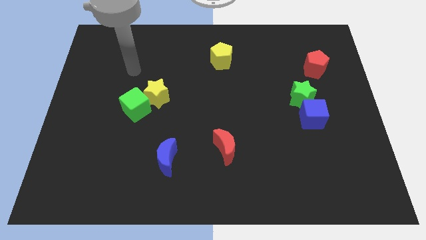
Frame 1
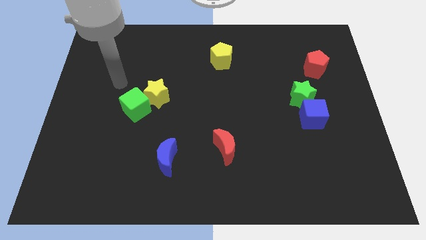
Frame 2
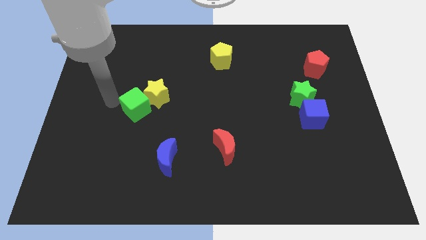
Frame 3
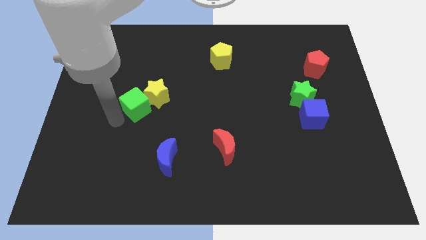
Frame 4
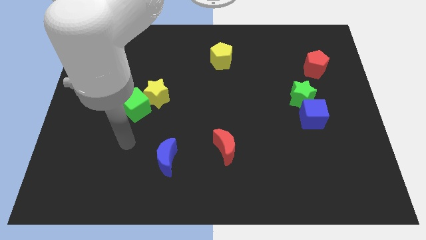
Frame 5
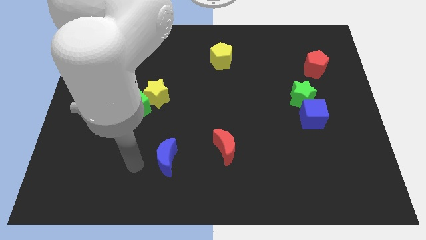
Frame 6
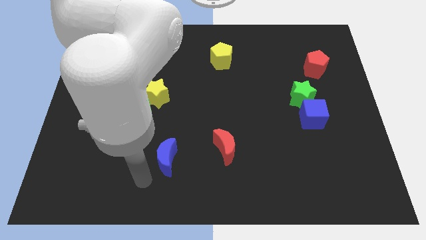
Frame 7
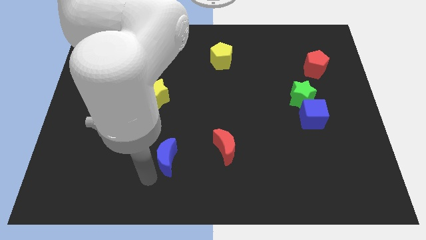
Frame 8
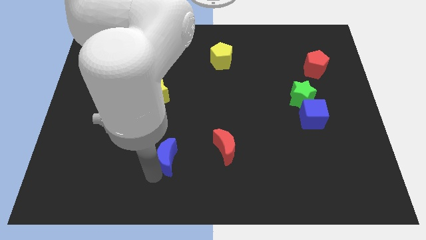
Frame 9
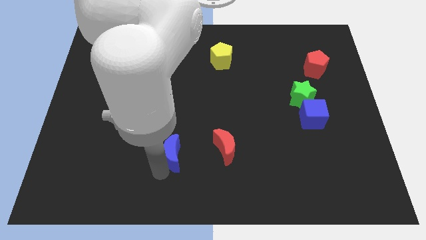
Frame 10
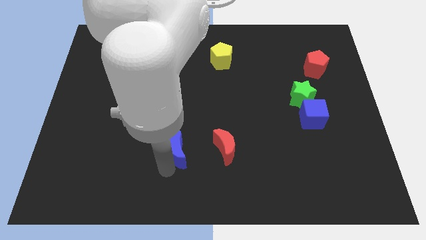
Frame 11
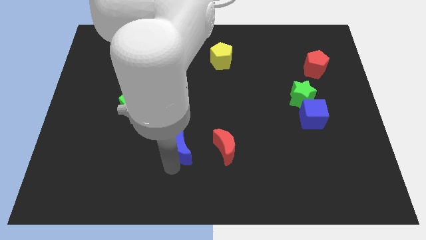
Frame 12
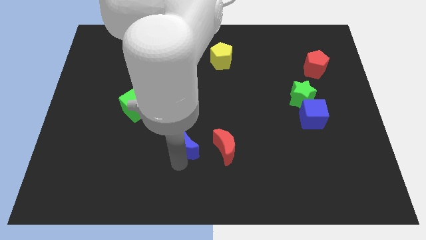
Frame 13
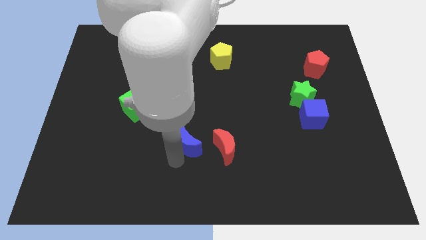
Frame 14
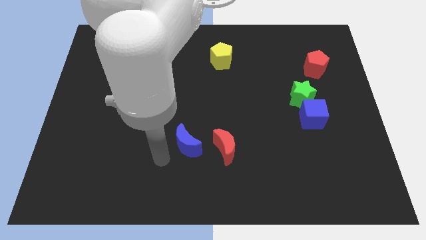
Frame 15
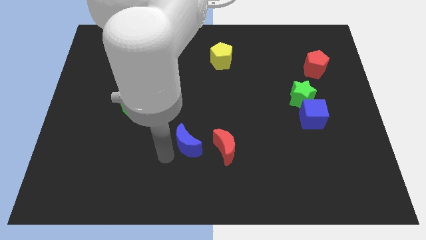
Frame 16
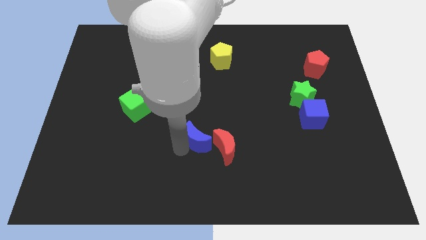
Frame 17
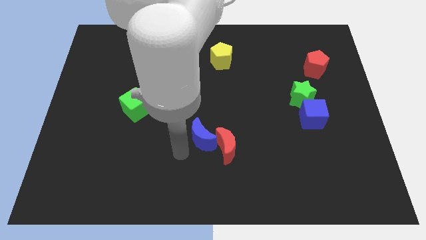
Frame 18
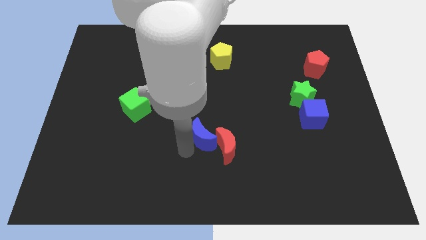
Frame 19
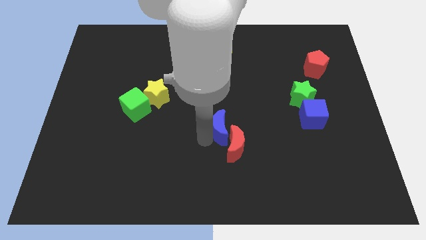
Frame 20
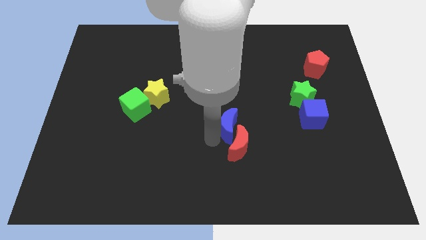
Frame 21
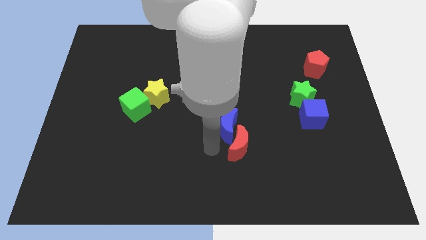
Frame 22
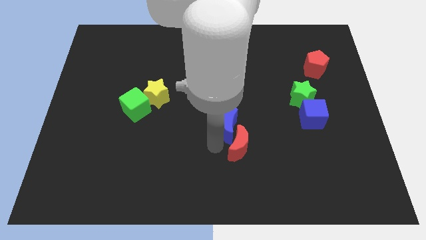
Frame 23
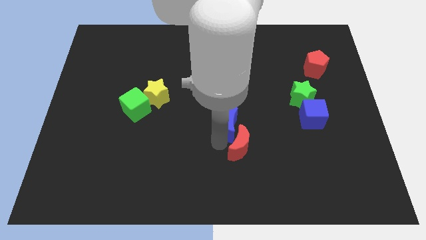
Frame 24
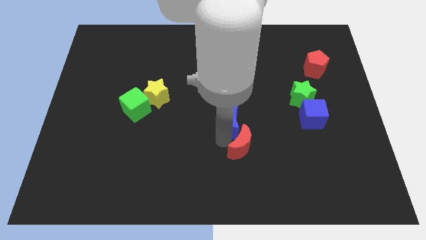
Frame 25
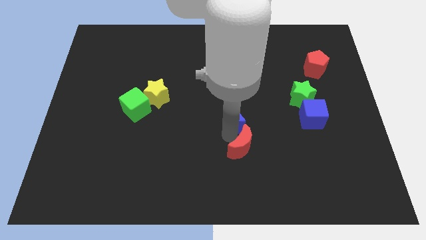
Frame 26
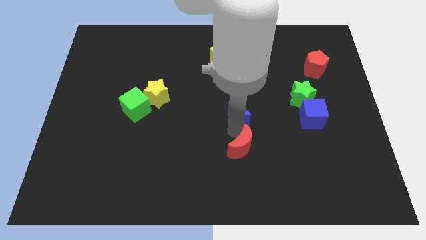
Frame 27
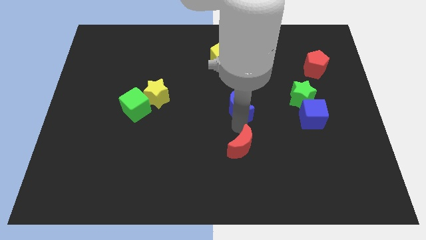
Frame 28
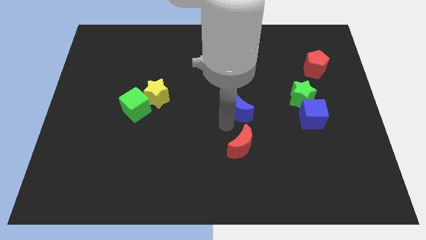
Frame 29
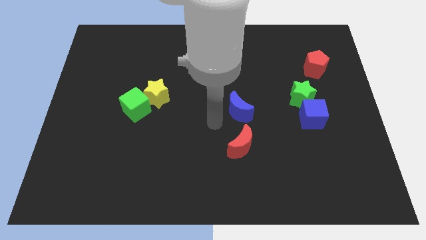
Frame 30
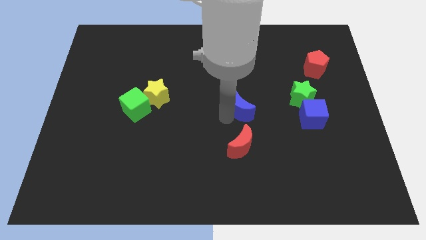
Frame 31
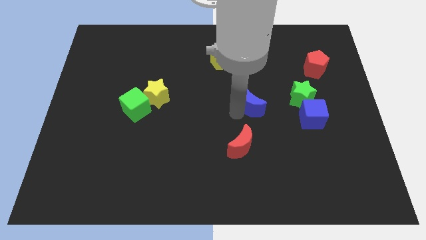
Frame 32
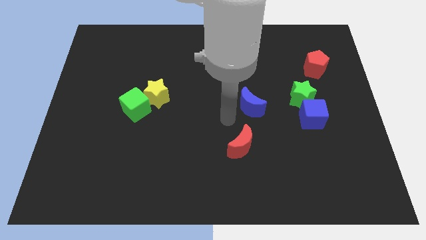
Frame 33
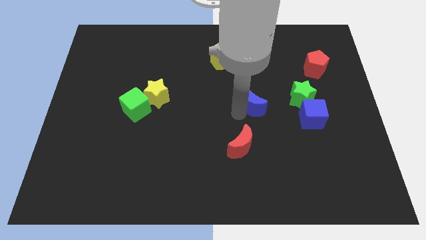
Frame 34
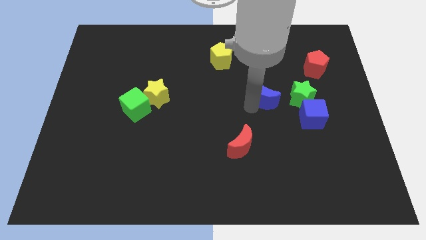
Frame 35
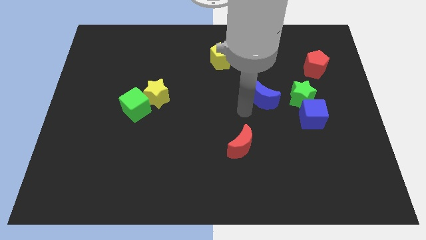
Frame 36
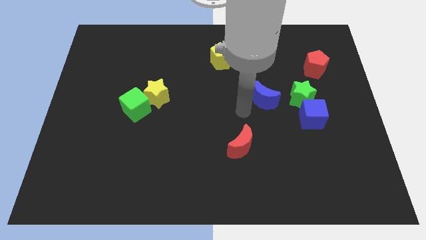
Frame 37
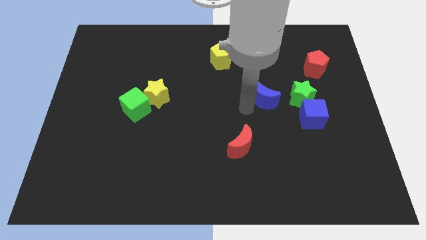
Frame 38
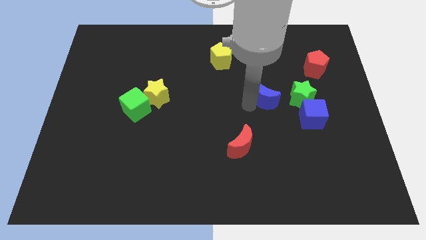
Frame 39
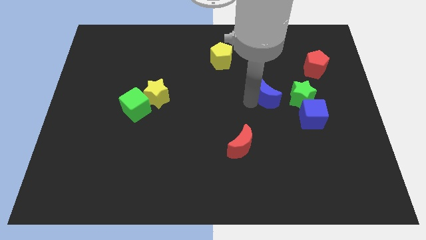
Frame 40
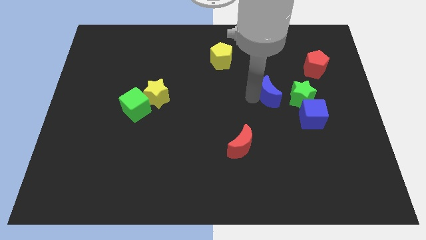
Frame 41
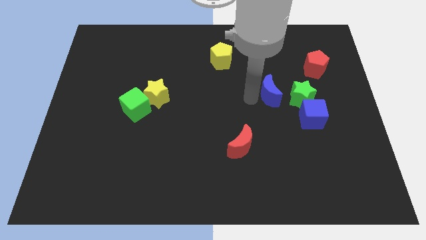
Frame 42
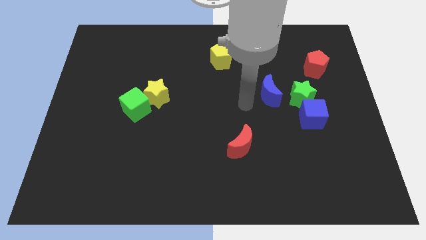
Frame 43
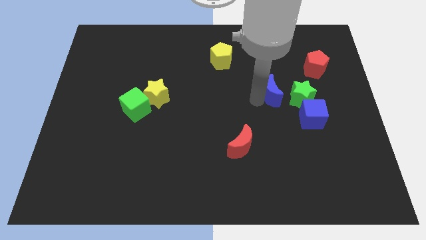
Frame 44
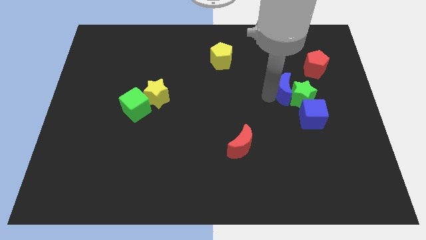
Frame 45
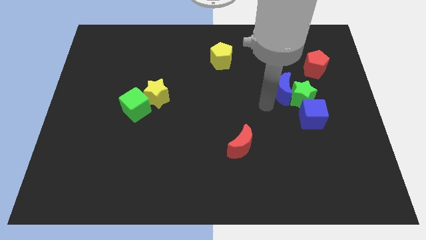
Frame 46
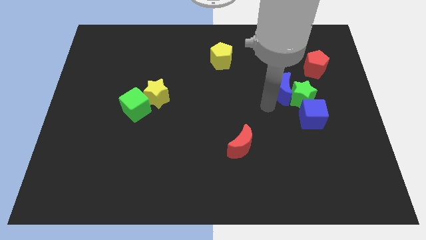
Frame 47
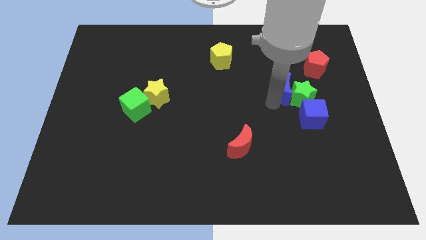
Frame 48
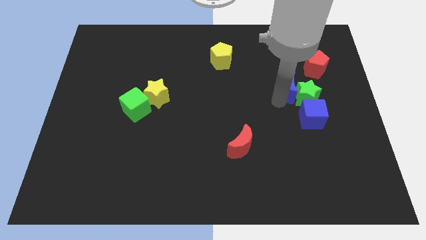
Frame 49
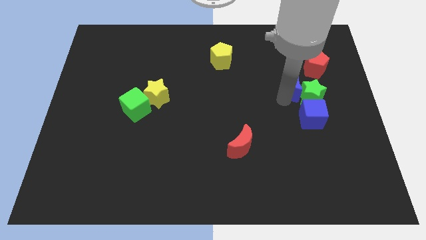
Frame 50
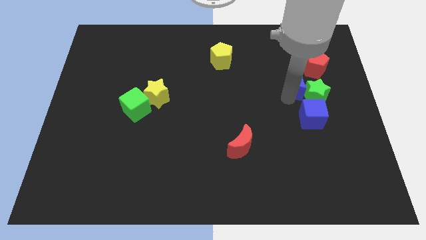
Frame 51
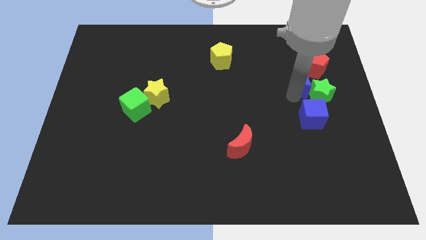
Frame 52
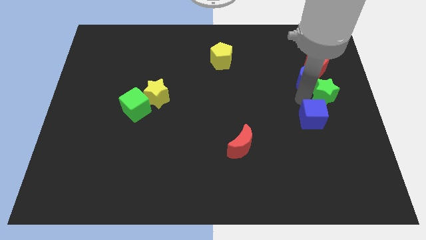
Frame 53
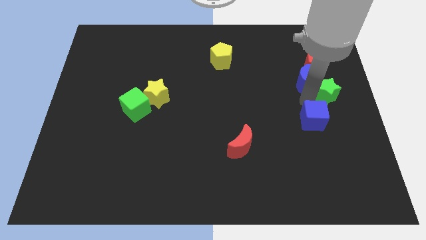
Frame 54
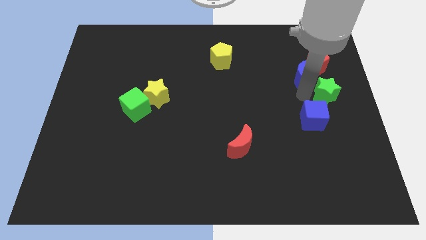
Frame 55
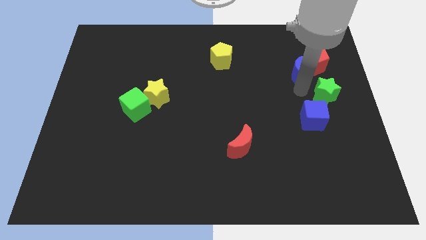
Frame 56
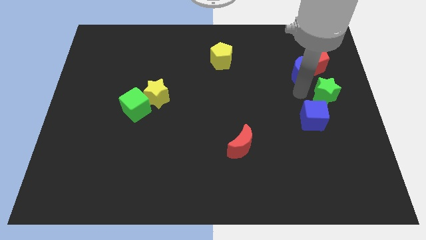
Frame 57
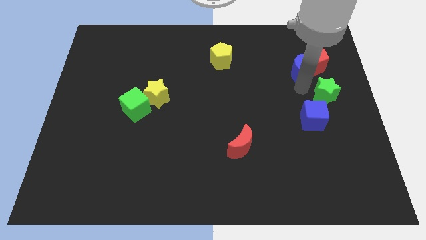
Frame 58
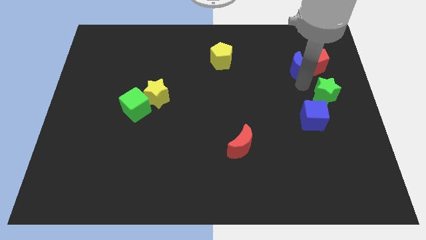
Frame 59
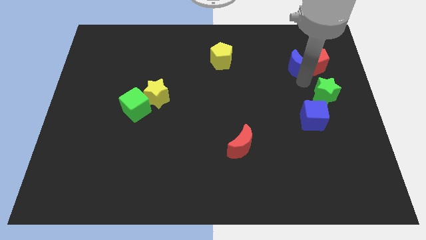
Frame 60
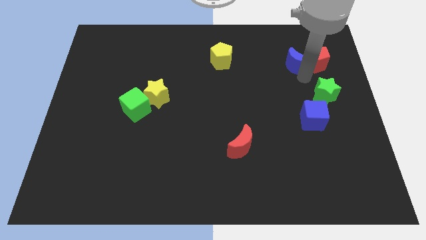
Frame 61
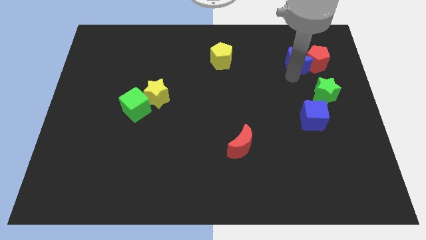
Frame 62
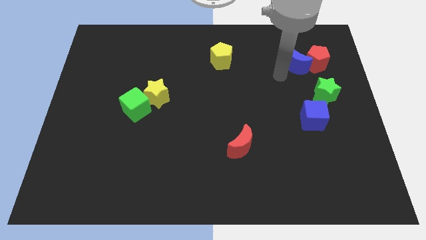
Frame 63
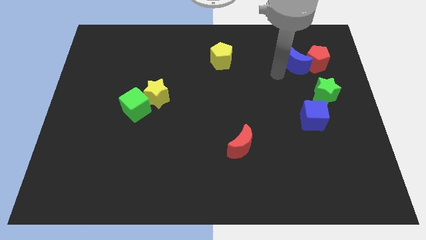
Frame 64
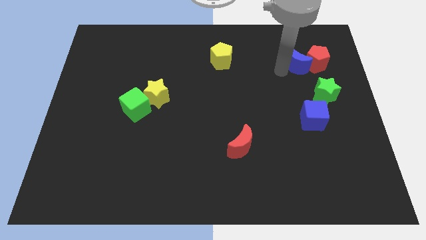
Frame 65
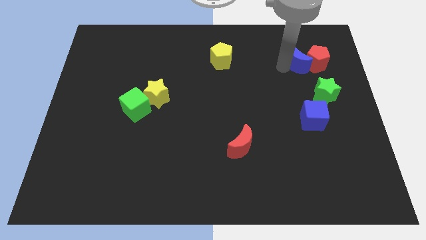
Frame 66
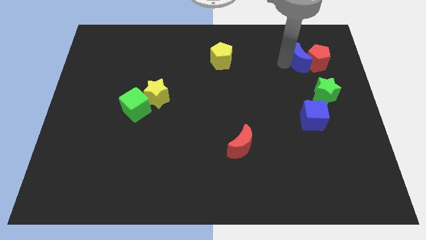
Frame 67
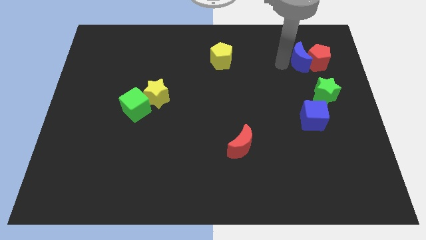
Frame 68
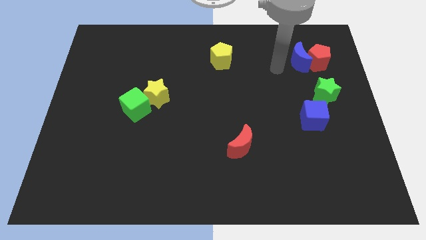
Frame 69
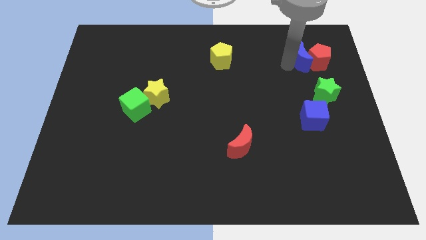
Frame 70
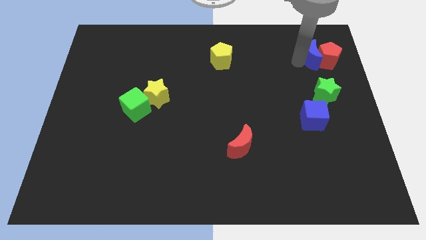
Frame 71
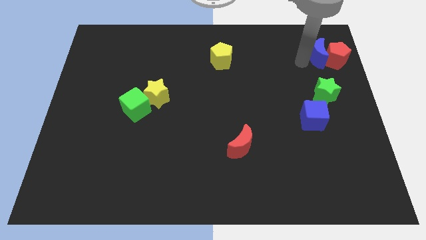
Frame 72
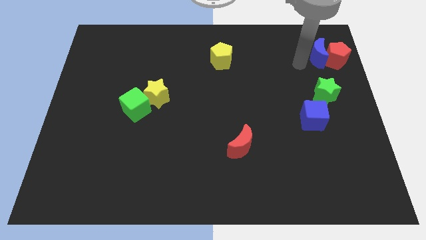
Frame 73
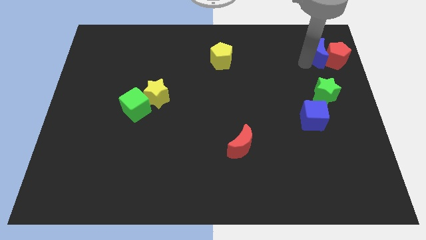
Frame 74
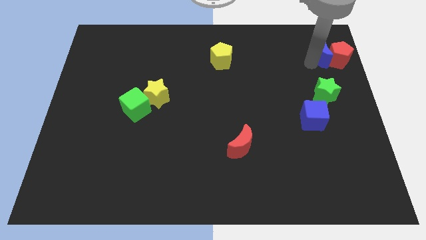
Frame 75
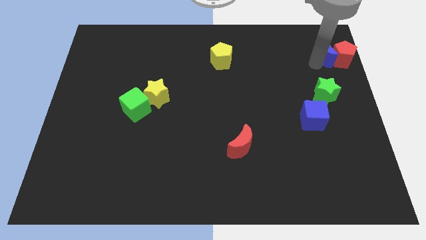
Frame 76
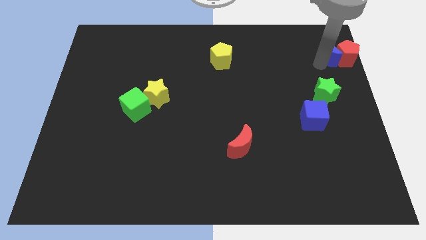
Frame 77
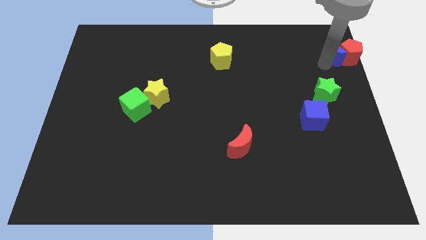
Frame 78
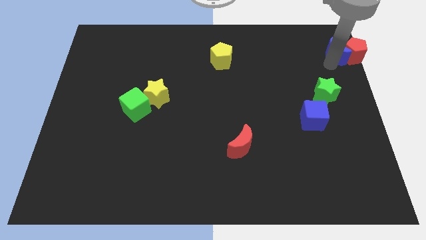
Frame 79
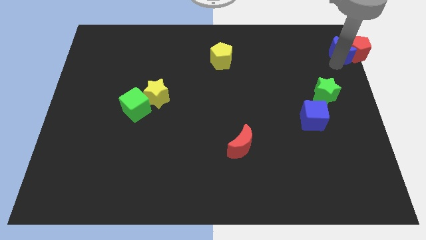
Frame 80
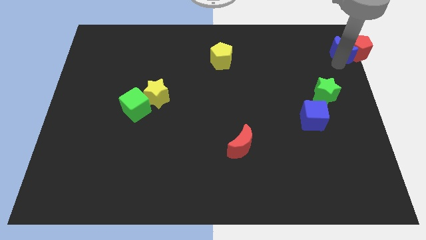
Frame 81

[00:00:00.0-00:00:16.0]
slide the blue moon to the upper right corner
